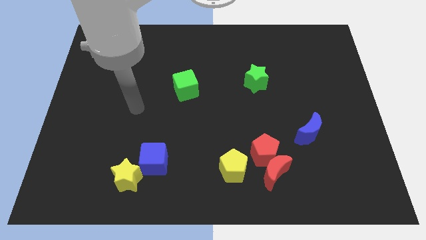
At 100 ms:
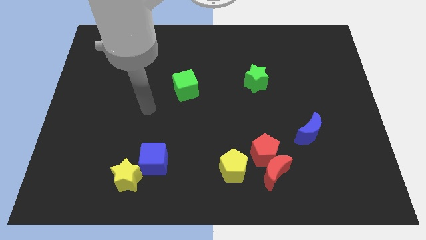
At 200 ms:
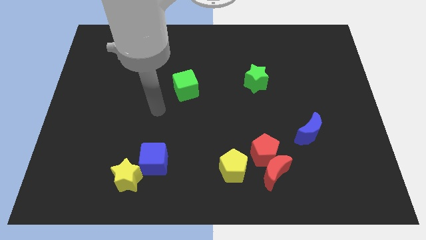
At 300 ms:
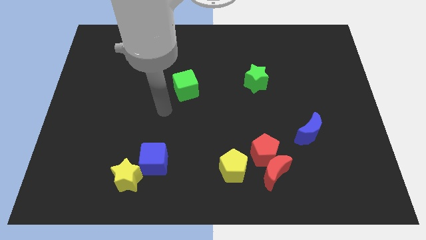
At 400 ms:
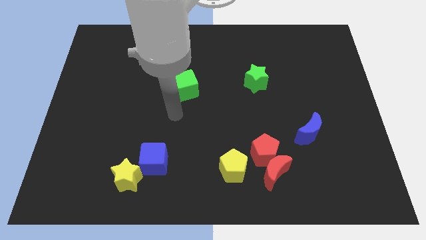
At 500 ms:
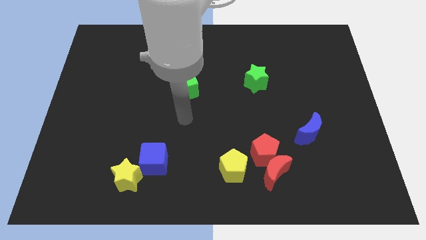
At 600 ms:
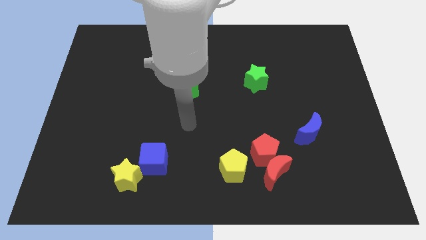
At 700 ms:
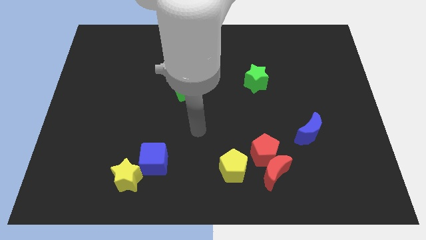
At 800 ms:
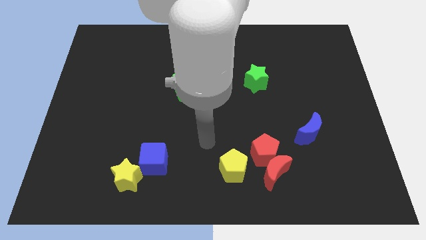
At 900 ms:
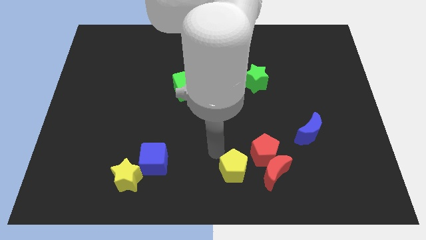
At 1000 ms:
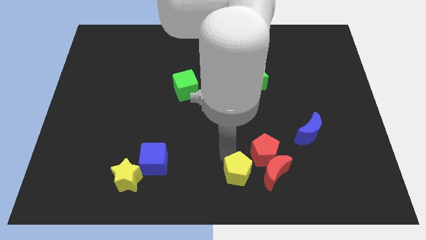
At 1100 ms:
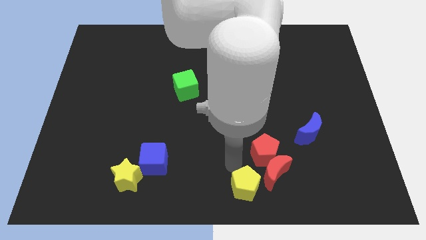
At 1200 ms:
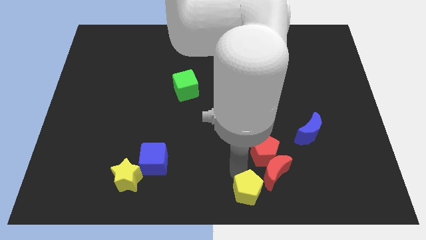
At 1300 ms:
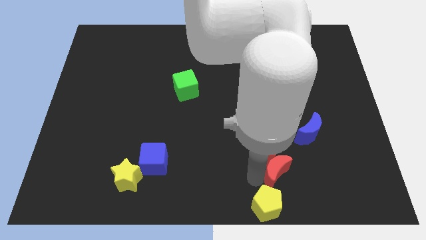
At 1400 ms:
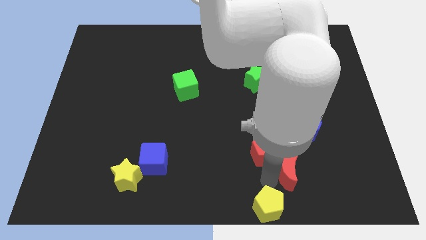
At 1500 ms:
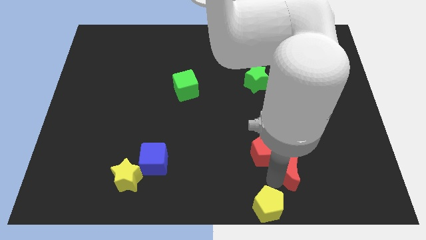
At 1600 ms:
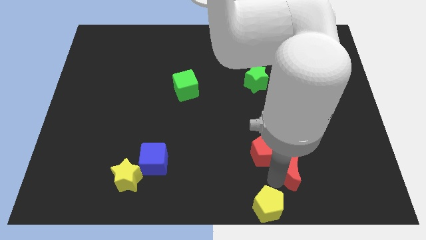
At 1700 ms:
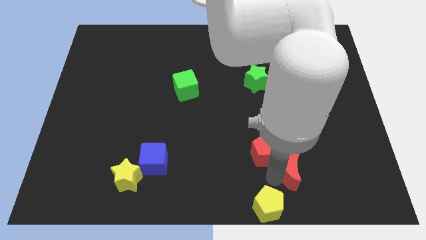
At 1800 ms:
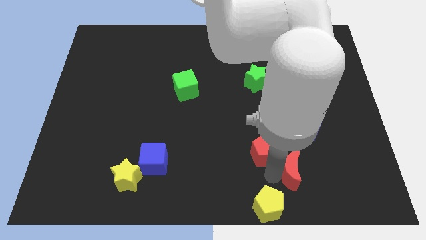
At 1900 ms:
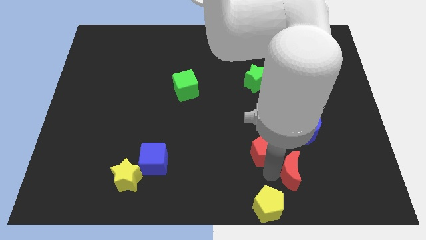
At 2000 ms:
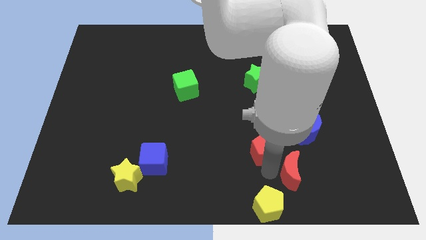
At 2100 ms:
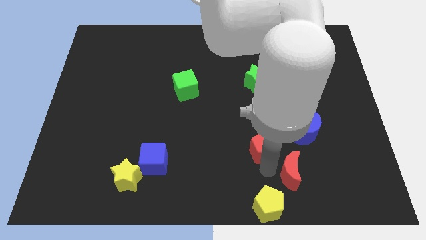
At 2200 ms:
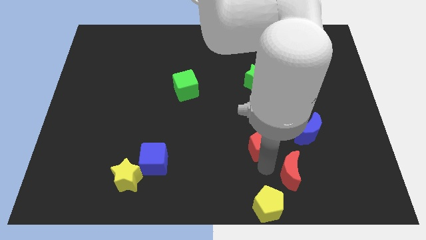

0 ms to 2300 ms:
move the red pentagon away from the red moon and yellow pentagon

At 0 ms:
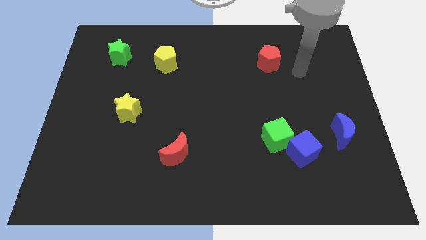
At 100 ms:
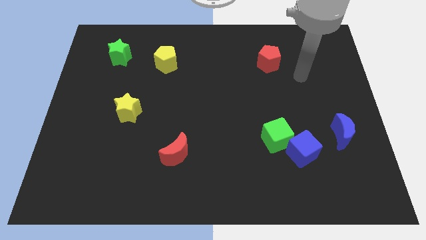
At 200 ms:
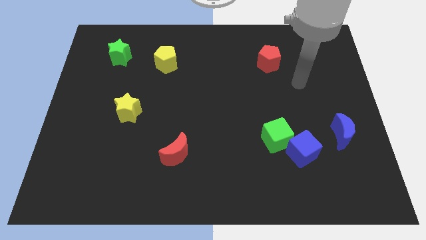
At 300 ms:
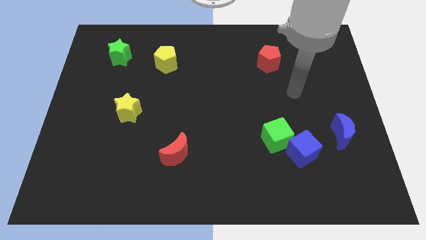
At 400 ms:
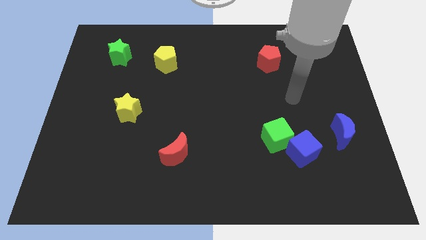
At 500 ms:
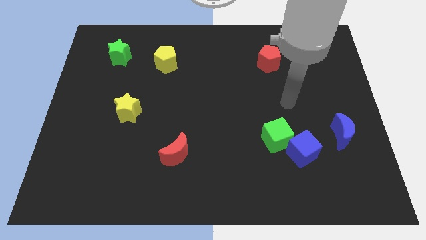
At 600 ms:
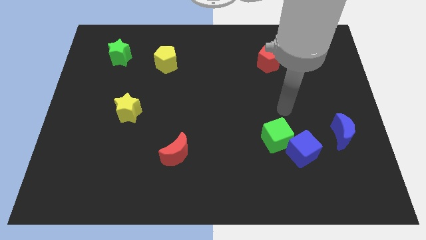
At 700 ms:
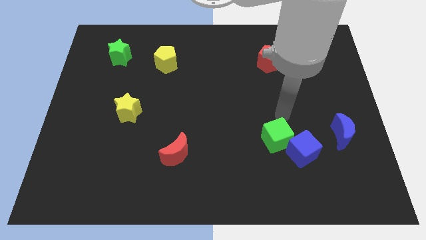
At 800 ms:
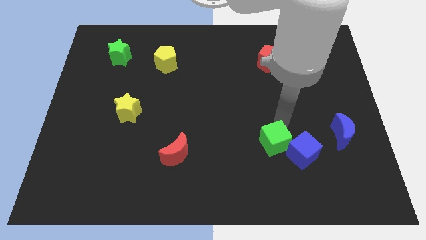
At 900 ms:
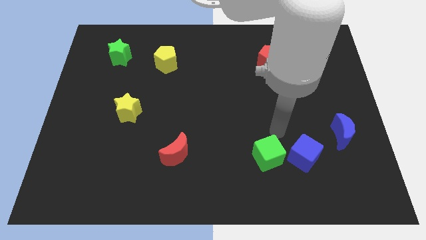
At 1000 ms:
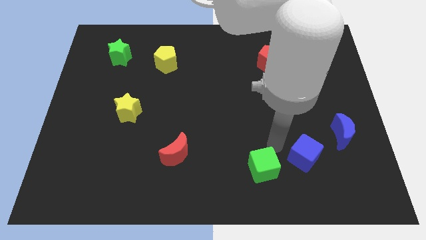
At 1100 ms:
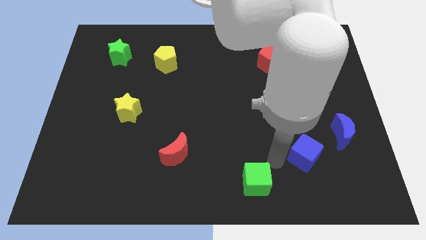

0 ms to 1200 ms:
separate the blue cube from the green cube

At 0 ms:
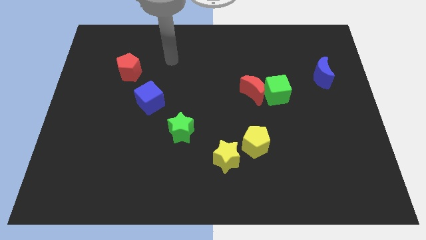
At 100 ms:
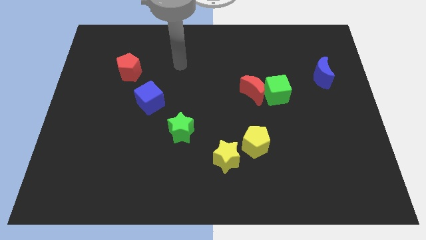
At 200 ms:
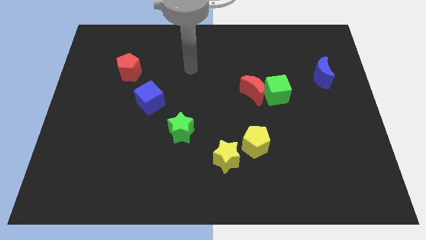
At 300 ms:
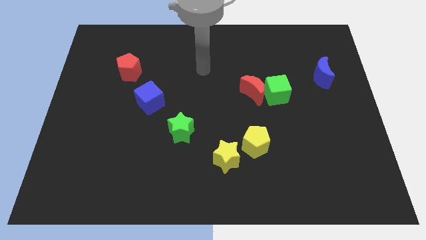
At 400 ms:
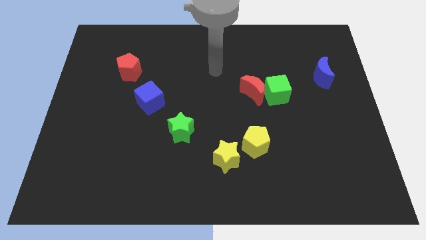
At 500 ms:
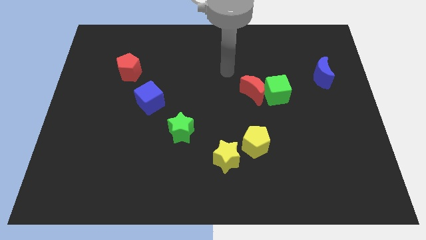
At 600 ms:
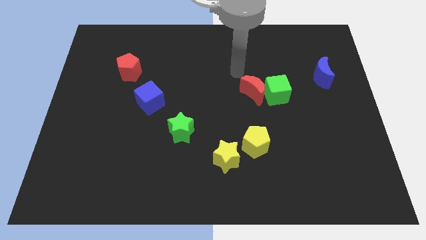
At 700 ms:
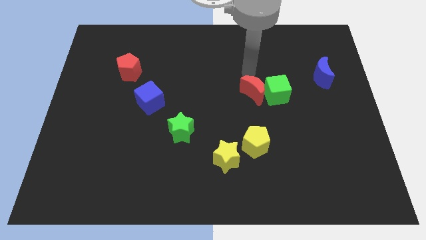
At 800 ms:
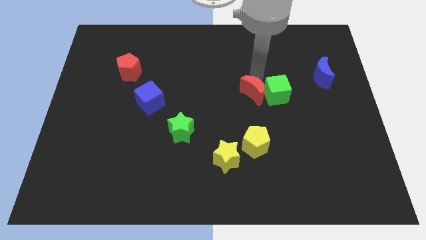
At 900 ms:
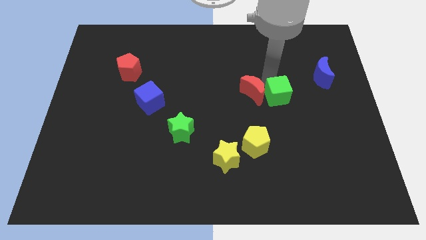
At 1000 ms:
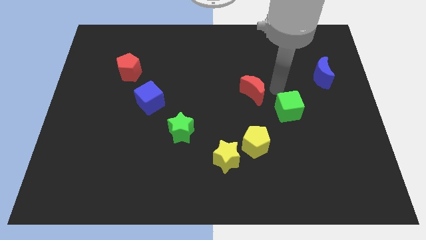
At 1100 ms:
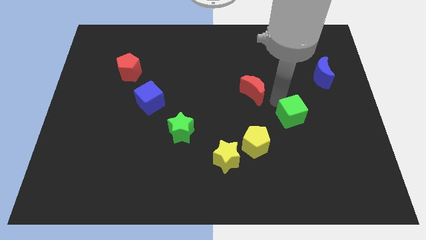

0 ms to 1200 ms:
move the red moon away from the green cube

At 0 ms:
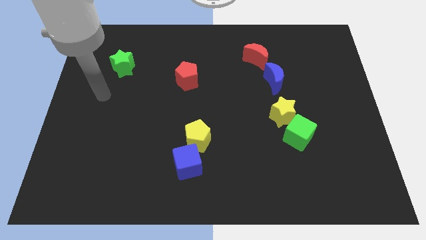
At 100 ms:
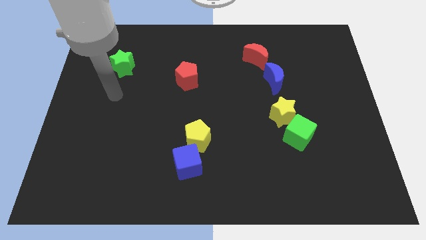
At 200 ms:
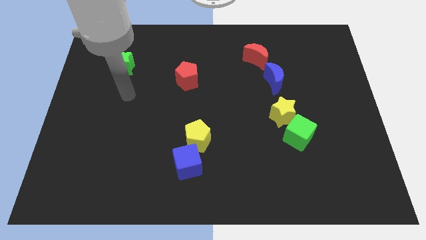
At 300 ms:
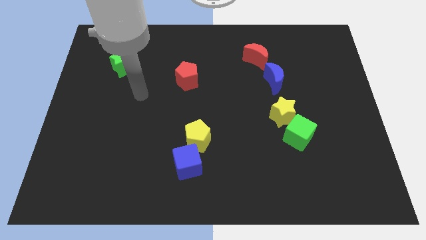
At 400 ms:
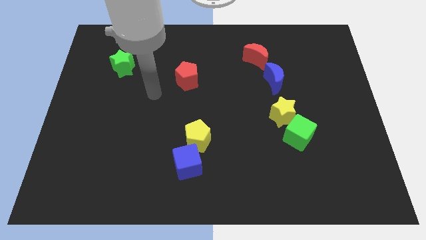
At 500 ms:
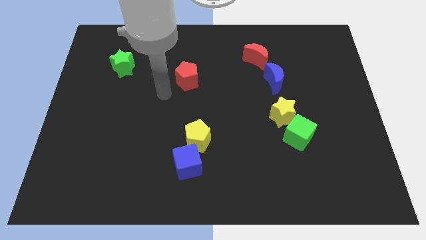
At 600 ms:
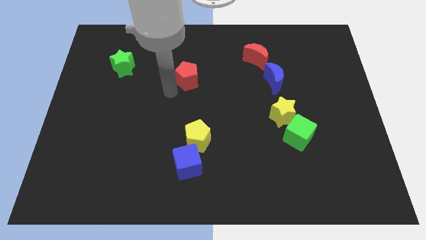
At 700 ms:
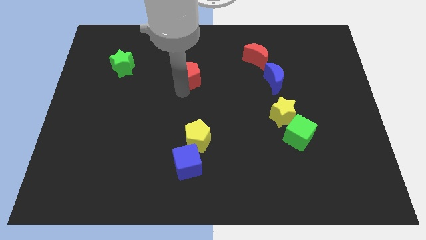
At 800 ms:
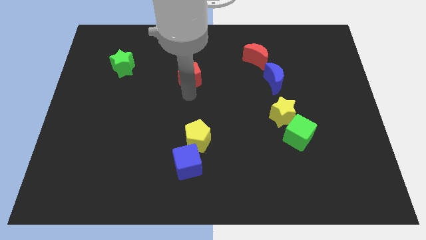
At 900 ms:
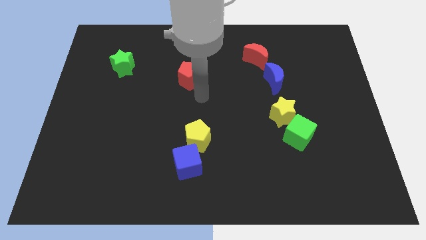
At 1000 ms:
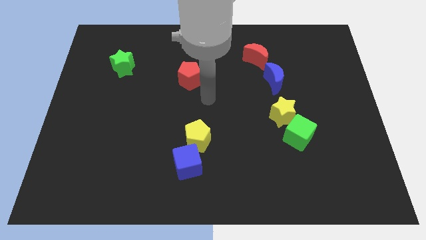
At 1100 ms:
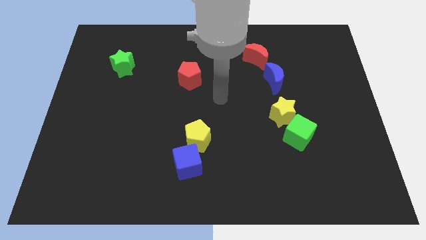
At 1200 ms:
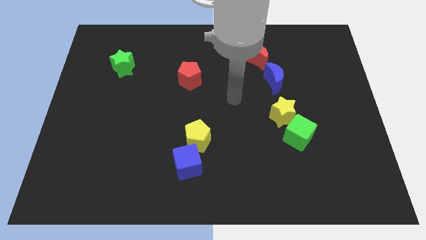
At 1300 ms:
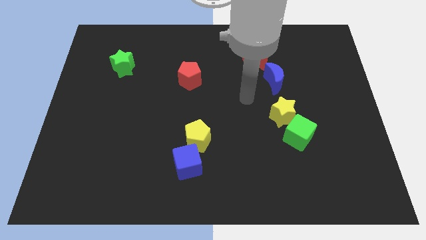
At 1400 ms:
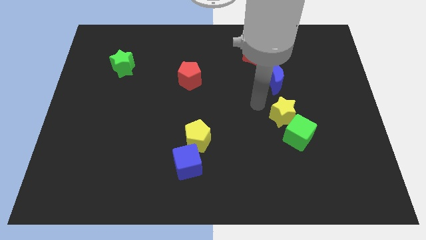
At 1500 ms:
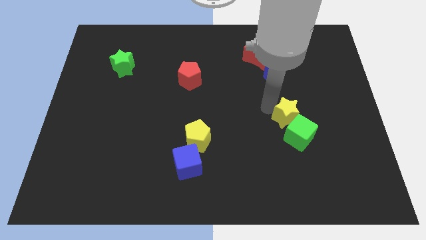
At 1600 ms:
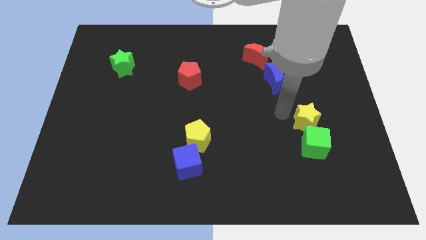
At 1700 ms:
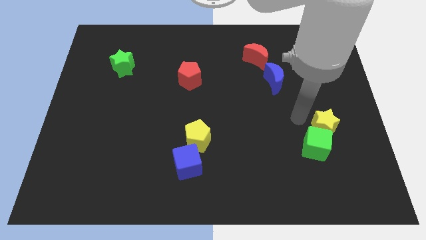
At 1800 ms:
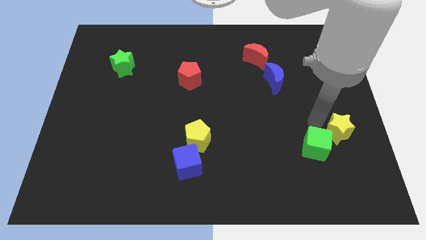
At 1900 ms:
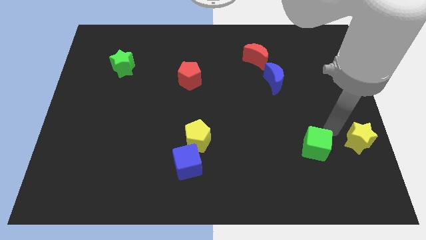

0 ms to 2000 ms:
move the green cube away from the yellow star

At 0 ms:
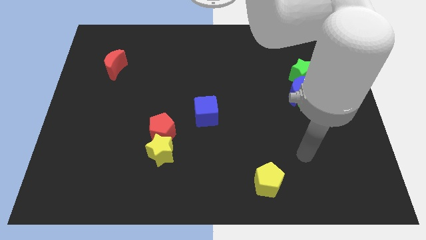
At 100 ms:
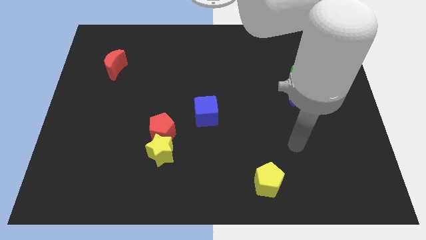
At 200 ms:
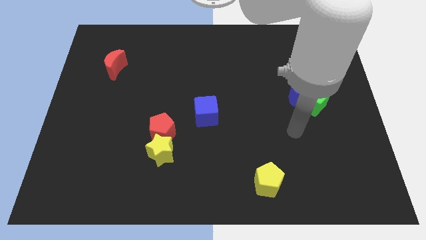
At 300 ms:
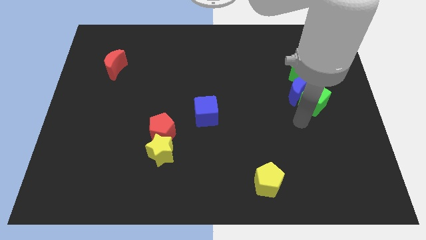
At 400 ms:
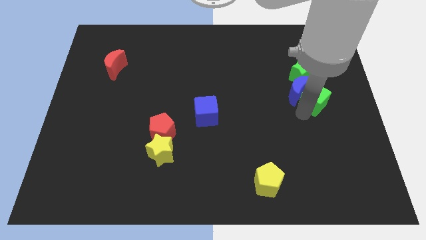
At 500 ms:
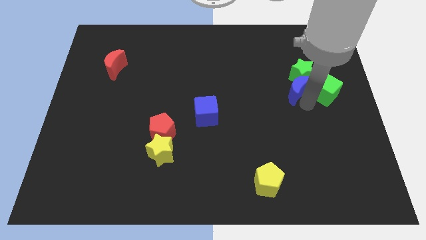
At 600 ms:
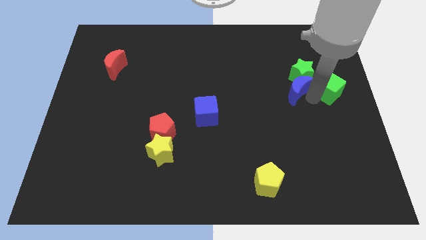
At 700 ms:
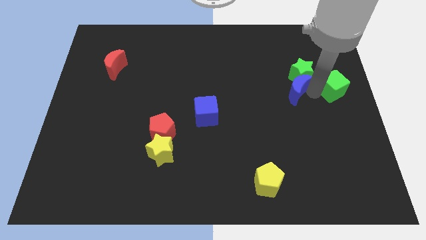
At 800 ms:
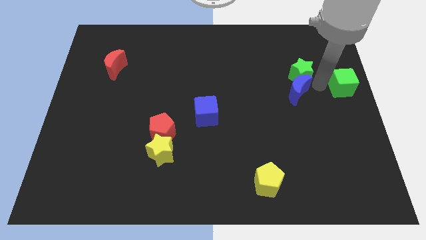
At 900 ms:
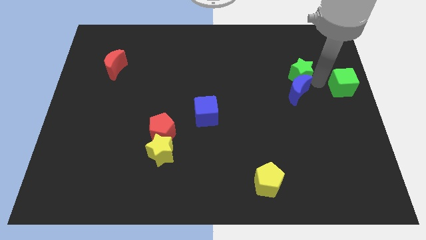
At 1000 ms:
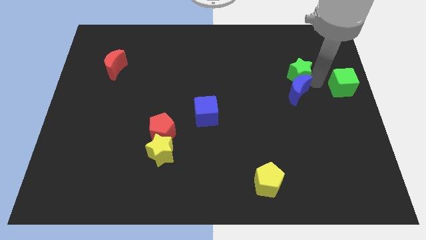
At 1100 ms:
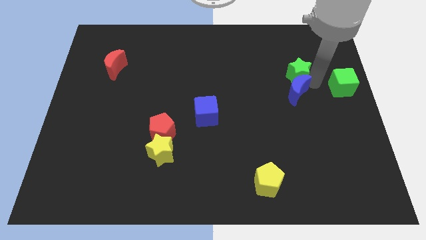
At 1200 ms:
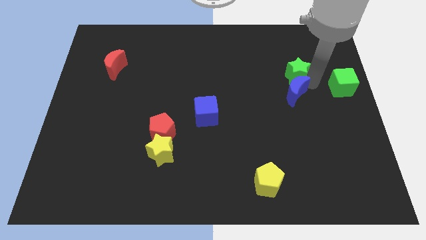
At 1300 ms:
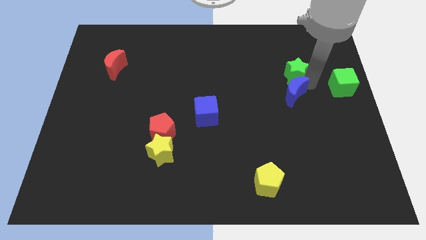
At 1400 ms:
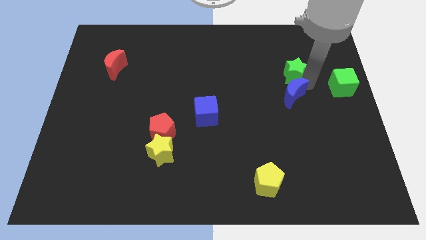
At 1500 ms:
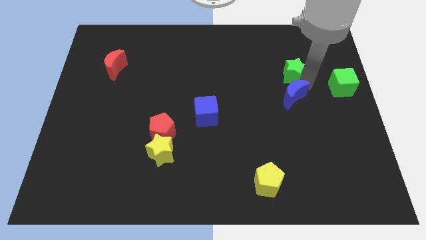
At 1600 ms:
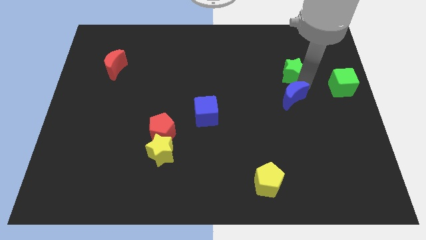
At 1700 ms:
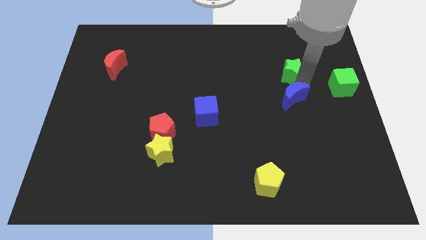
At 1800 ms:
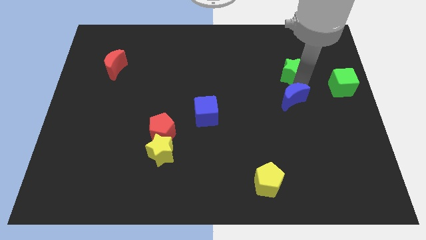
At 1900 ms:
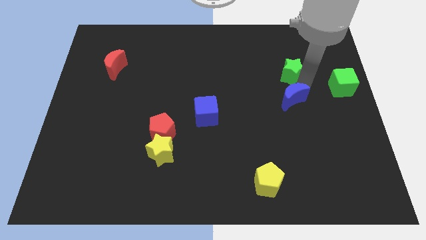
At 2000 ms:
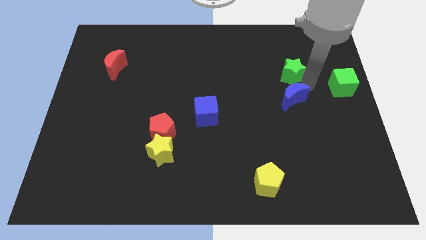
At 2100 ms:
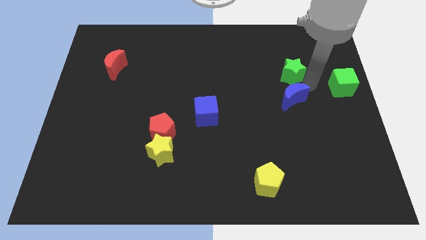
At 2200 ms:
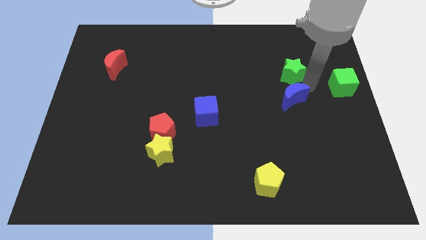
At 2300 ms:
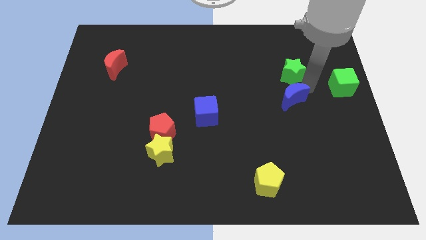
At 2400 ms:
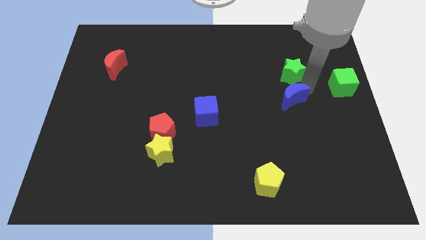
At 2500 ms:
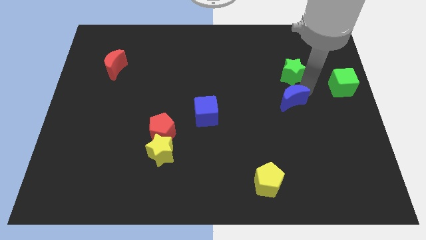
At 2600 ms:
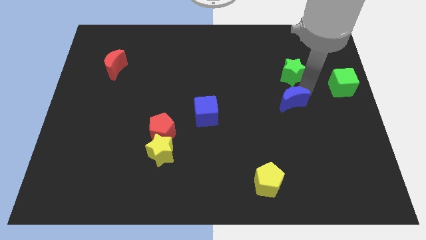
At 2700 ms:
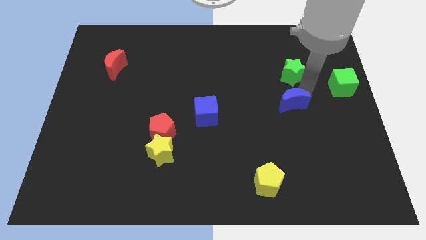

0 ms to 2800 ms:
pull the blue moon apart from the green cube and green star
